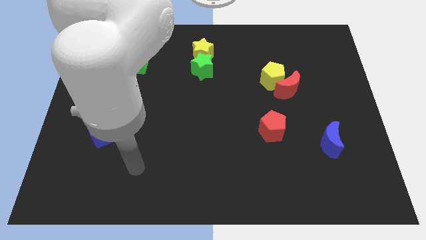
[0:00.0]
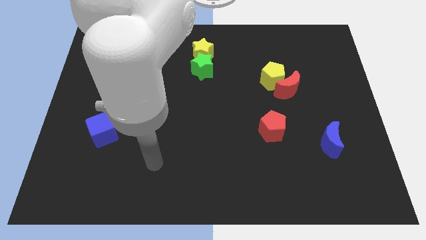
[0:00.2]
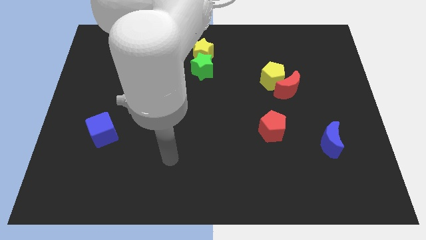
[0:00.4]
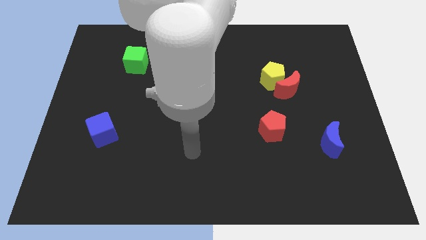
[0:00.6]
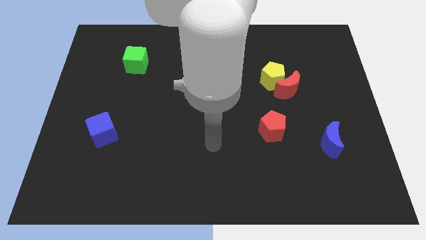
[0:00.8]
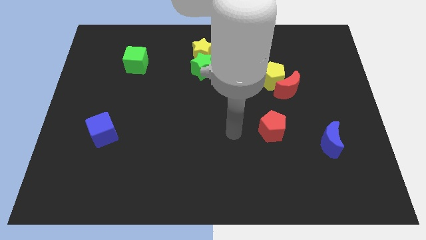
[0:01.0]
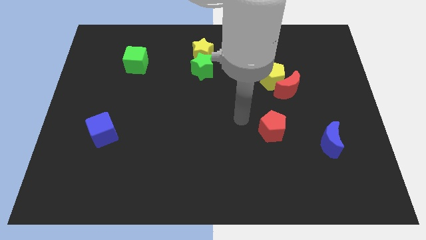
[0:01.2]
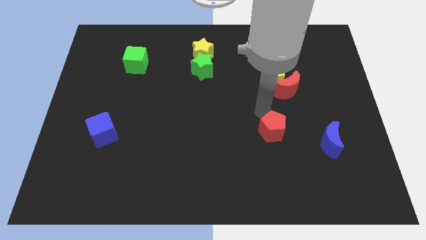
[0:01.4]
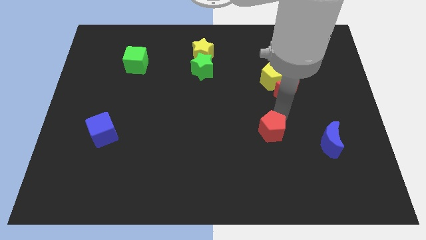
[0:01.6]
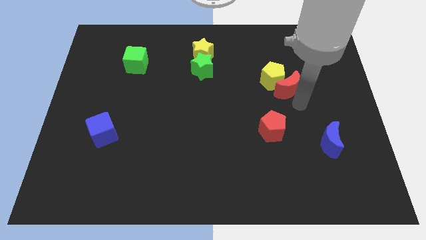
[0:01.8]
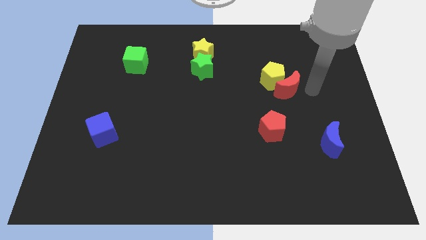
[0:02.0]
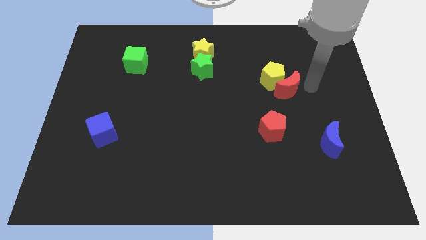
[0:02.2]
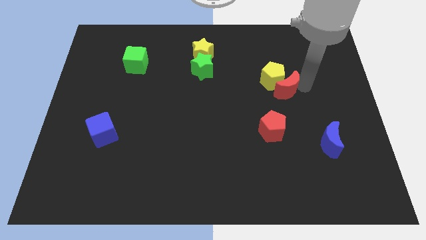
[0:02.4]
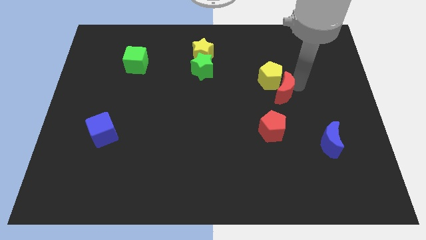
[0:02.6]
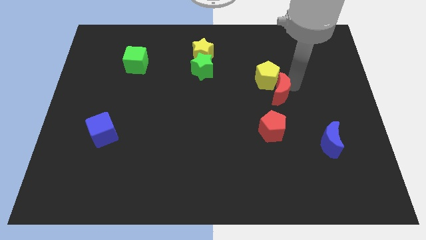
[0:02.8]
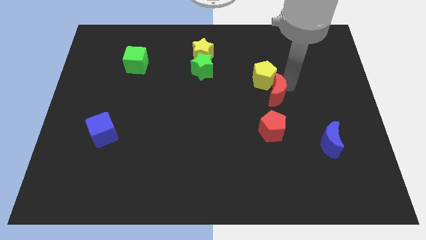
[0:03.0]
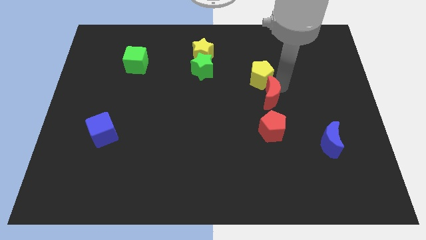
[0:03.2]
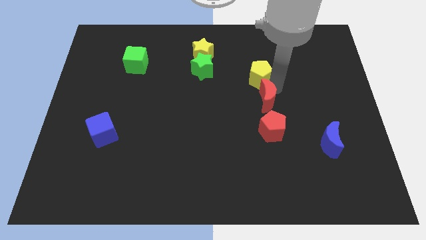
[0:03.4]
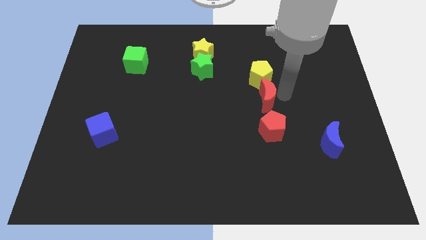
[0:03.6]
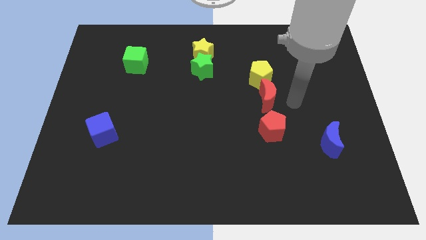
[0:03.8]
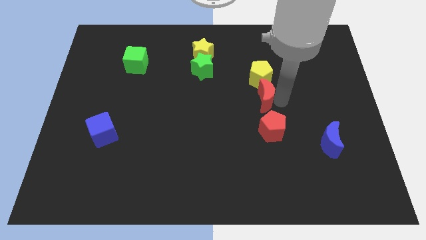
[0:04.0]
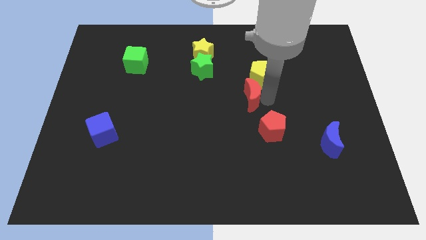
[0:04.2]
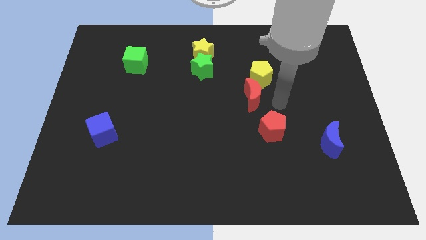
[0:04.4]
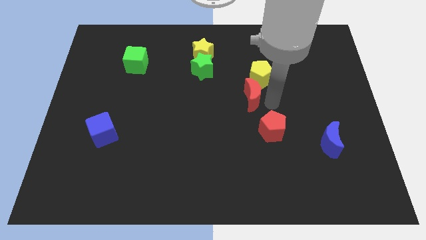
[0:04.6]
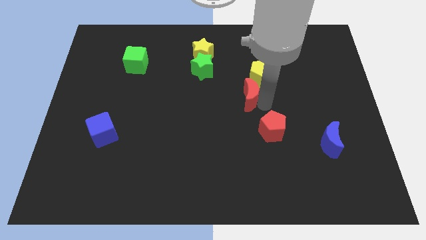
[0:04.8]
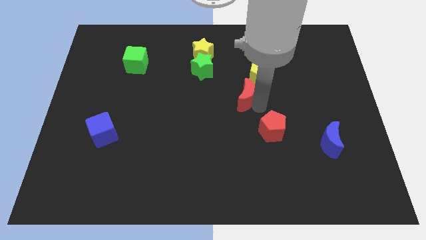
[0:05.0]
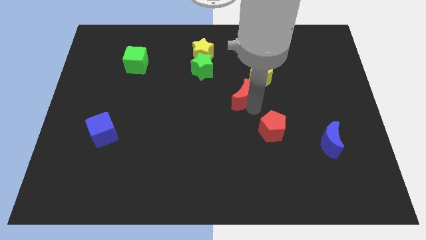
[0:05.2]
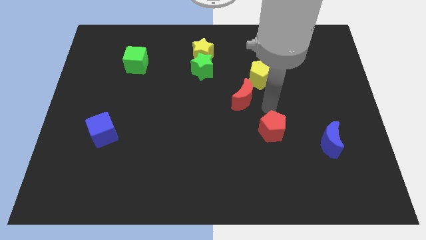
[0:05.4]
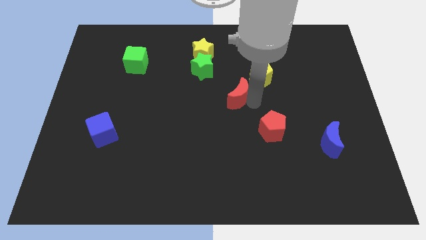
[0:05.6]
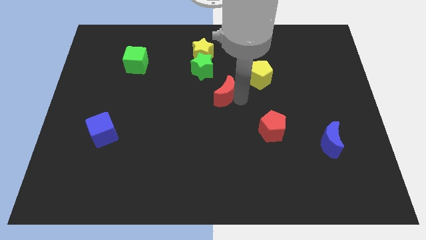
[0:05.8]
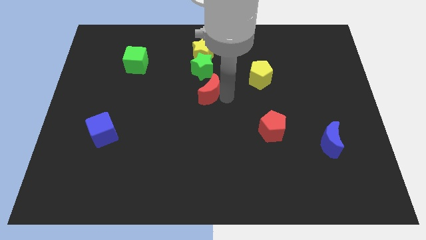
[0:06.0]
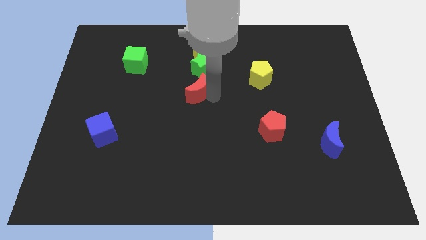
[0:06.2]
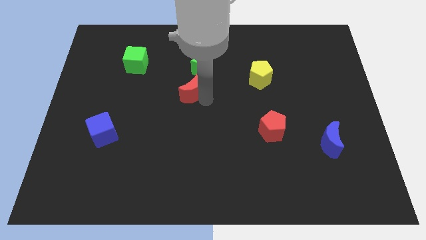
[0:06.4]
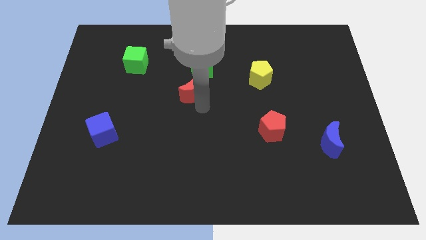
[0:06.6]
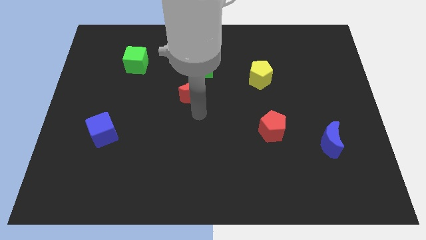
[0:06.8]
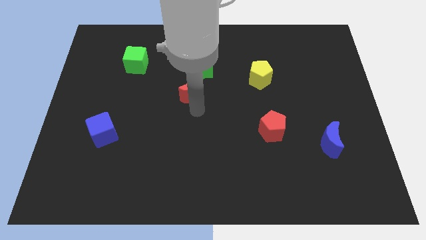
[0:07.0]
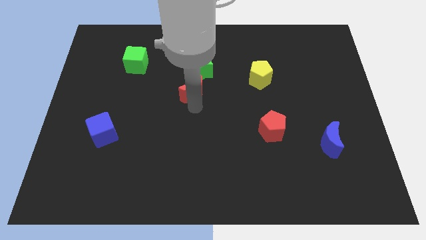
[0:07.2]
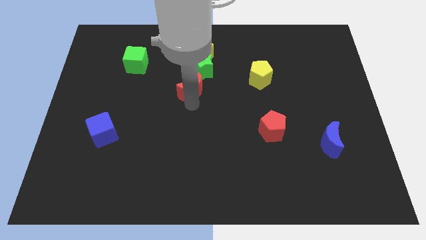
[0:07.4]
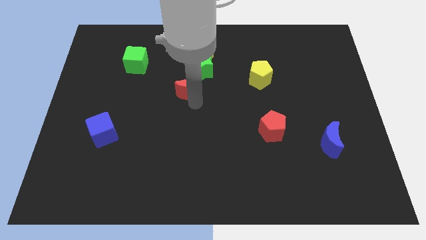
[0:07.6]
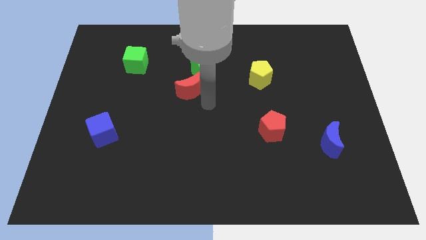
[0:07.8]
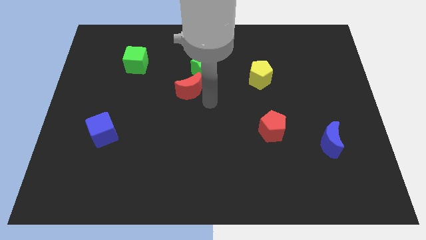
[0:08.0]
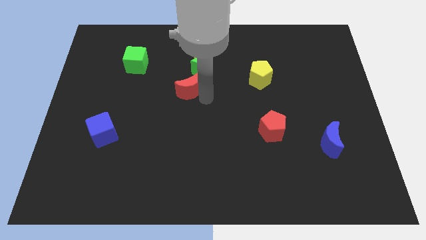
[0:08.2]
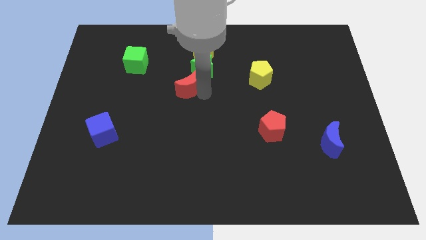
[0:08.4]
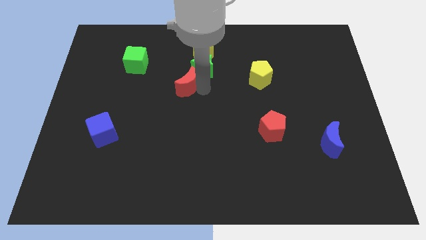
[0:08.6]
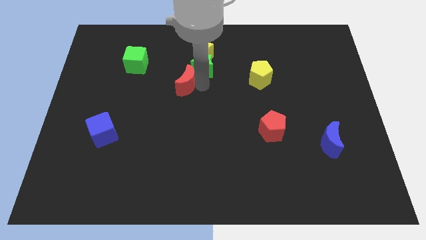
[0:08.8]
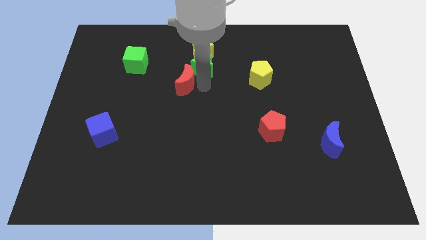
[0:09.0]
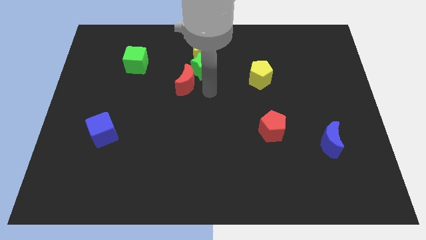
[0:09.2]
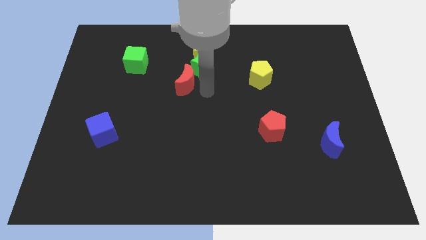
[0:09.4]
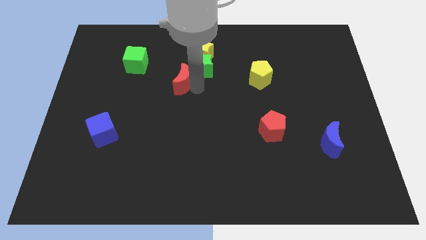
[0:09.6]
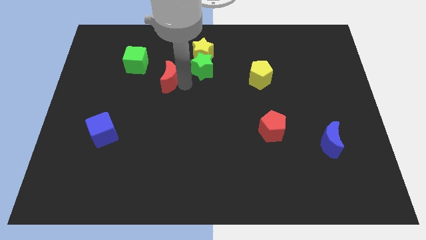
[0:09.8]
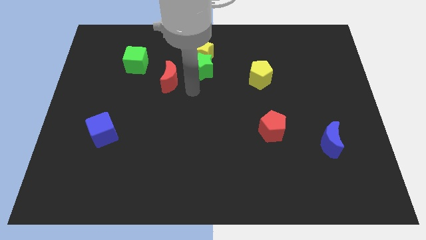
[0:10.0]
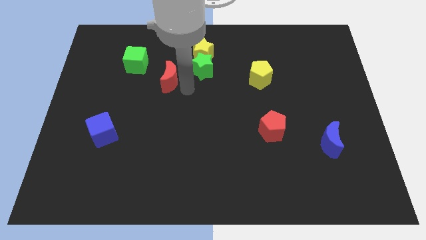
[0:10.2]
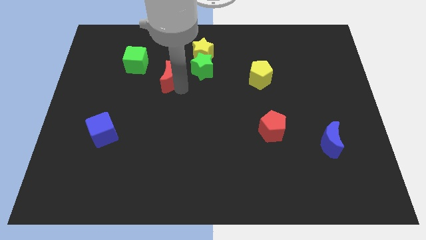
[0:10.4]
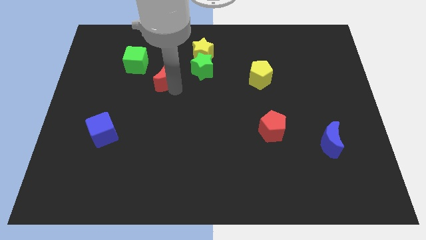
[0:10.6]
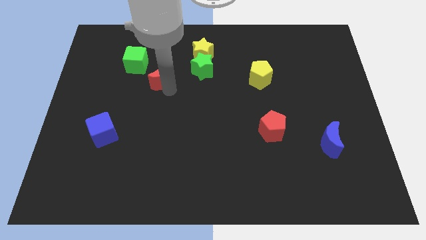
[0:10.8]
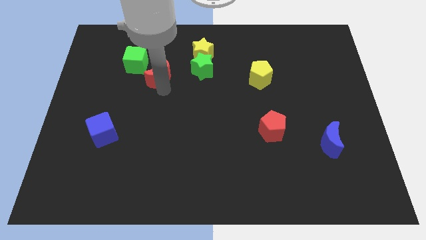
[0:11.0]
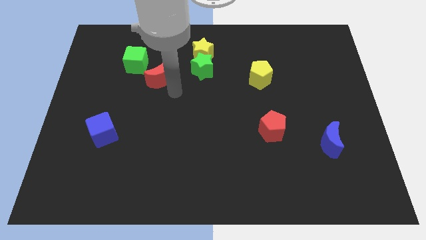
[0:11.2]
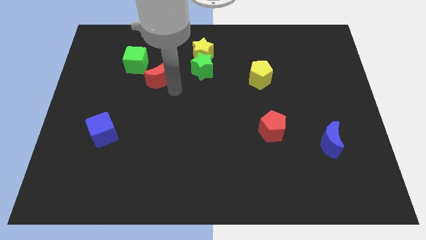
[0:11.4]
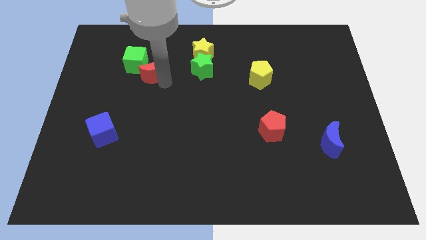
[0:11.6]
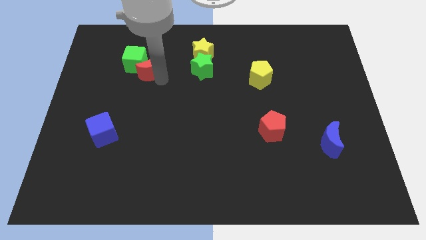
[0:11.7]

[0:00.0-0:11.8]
move the red moon towards the green cube

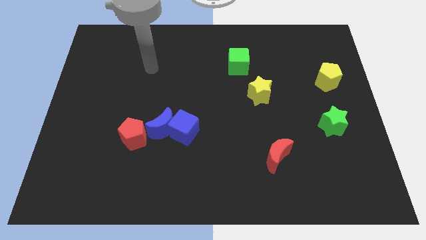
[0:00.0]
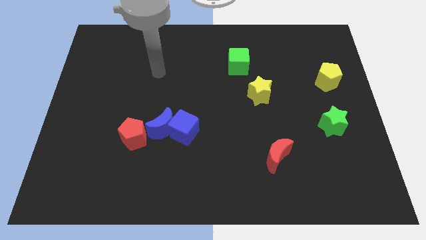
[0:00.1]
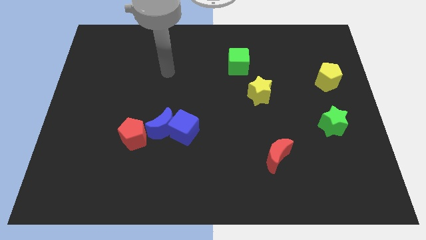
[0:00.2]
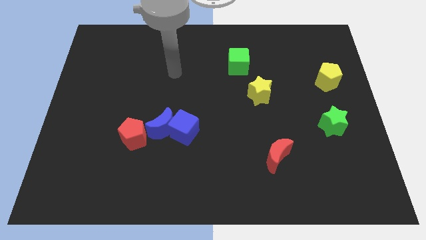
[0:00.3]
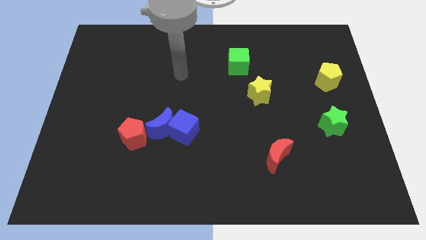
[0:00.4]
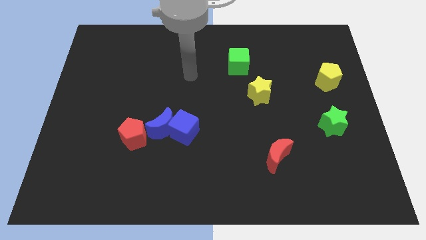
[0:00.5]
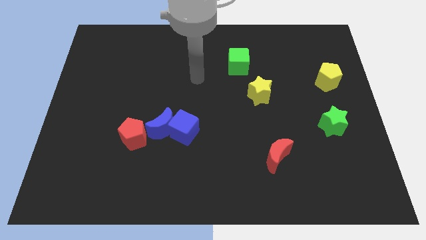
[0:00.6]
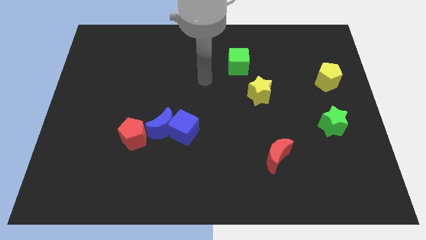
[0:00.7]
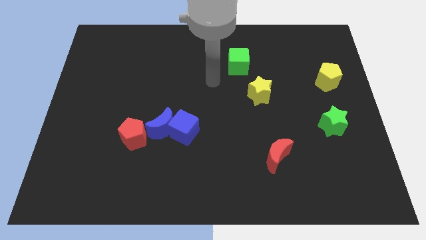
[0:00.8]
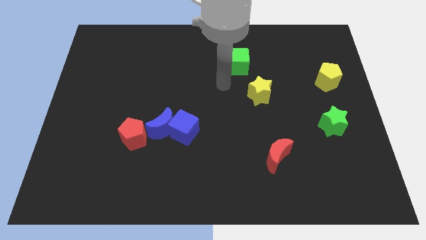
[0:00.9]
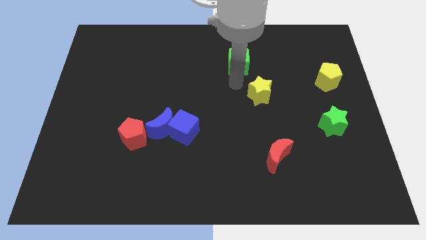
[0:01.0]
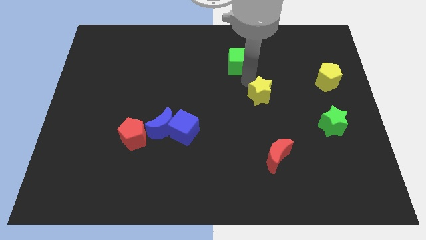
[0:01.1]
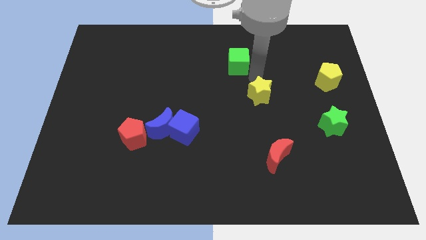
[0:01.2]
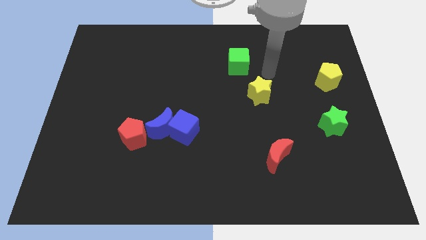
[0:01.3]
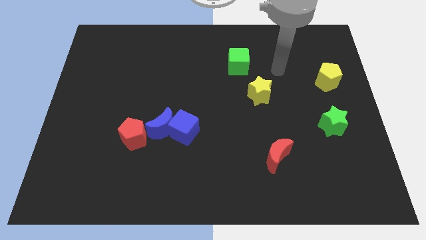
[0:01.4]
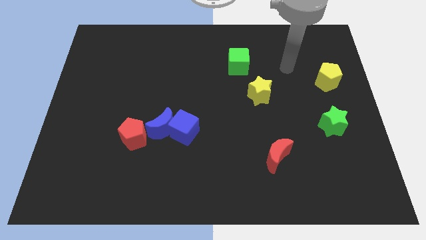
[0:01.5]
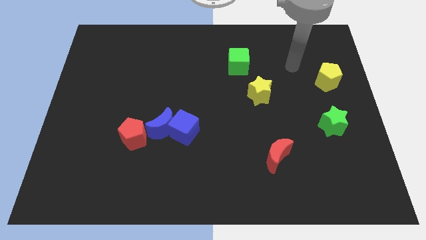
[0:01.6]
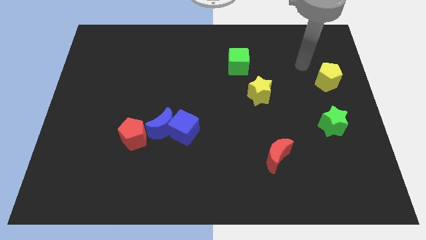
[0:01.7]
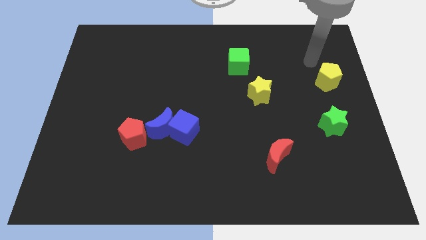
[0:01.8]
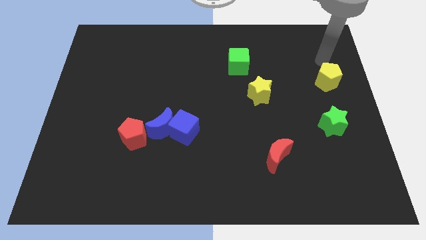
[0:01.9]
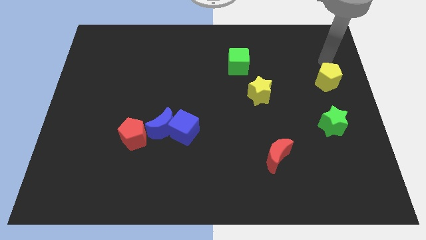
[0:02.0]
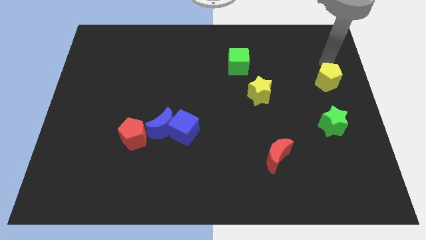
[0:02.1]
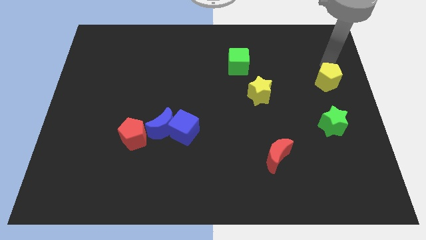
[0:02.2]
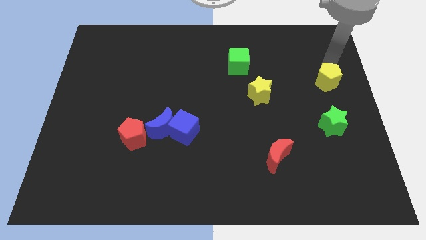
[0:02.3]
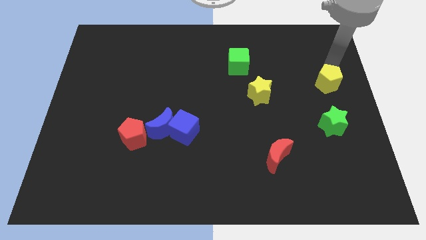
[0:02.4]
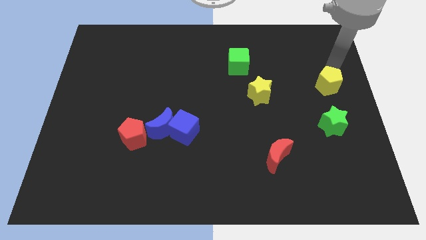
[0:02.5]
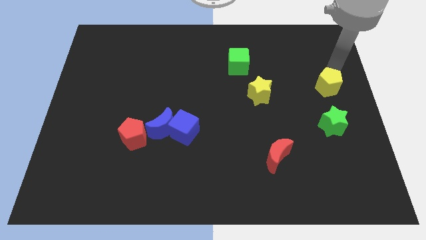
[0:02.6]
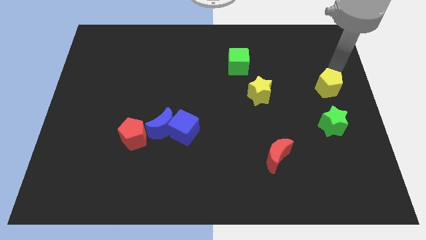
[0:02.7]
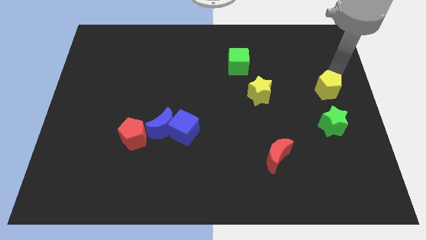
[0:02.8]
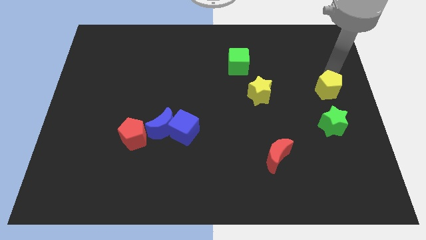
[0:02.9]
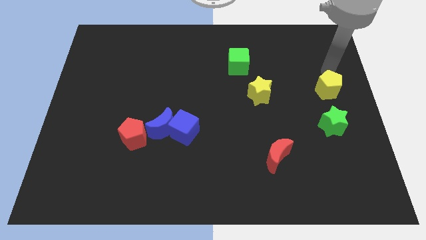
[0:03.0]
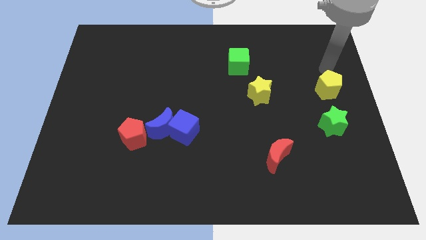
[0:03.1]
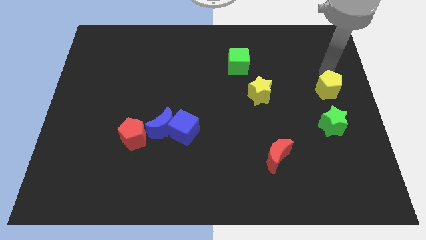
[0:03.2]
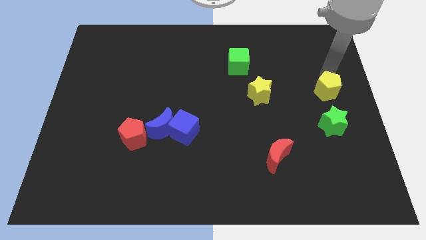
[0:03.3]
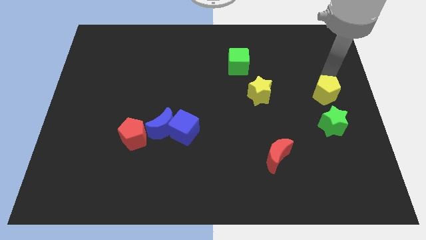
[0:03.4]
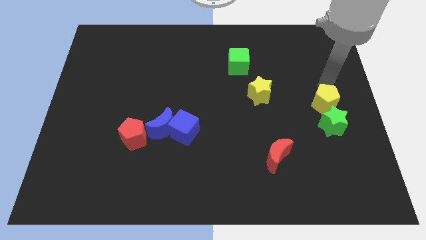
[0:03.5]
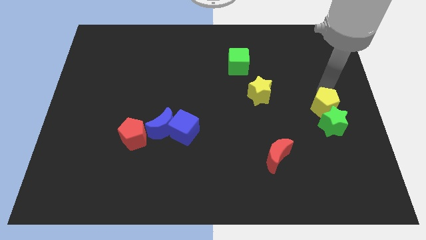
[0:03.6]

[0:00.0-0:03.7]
slide the yellow pentagon next to the green star
